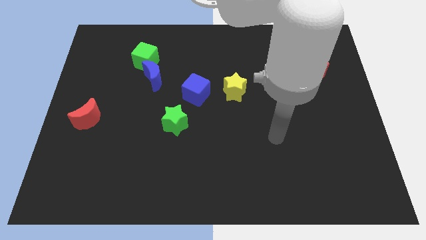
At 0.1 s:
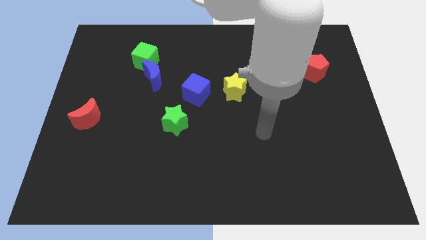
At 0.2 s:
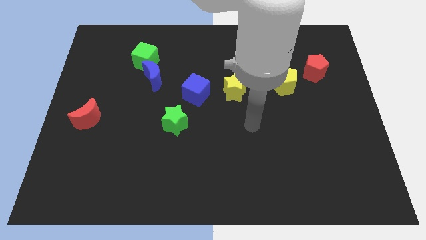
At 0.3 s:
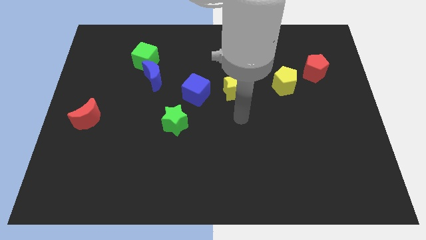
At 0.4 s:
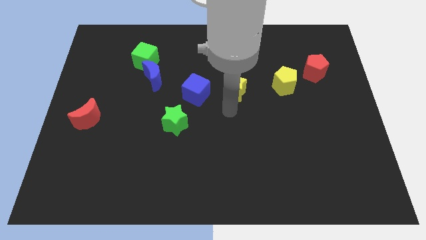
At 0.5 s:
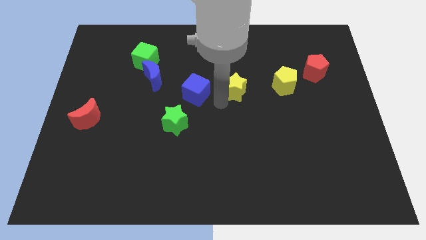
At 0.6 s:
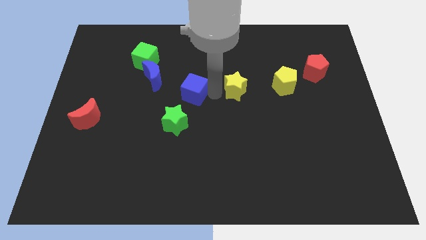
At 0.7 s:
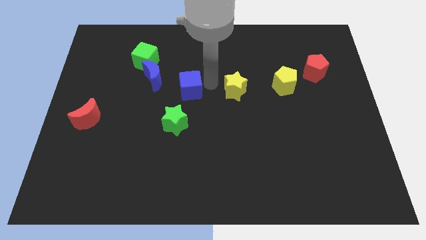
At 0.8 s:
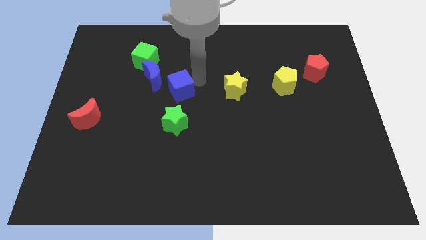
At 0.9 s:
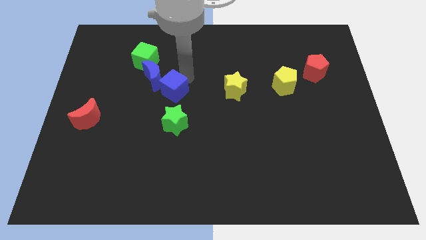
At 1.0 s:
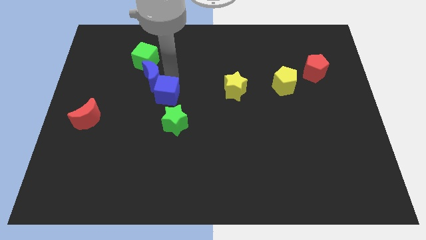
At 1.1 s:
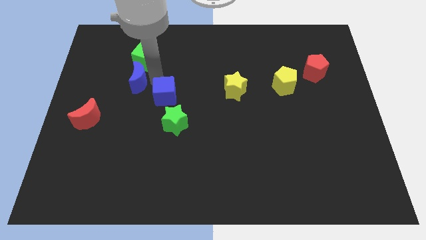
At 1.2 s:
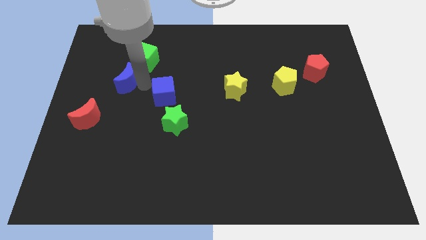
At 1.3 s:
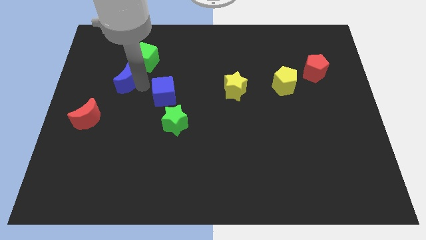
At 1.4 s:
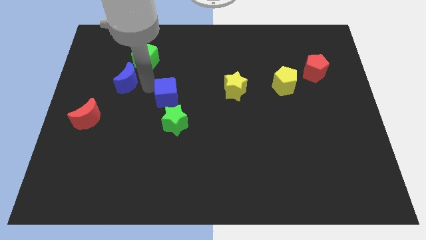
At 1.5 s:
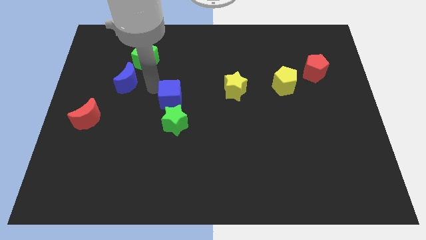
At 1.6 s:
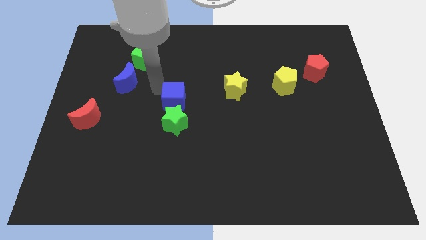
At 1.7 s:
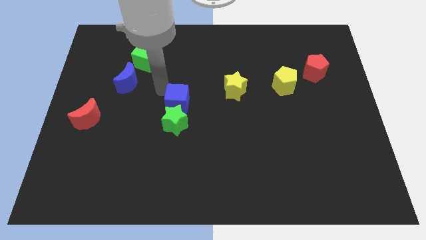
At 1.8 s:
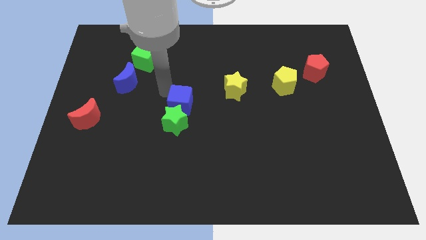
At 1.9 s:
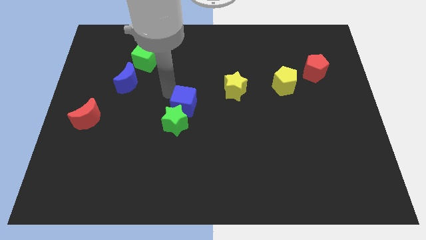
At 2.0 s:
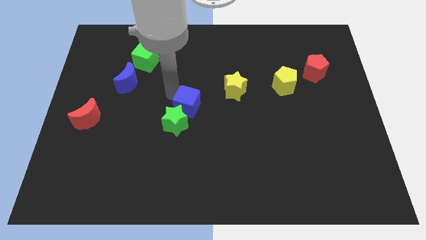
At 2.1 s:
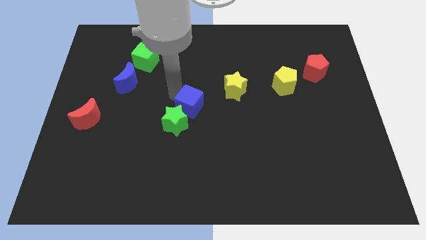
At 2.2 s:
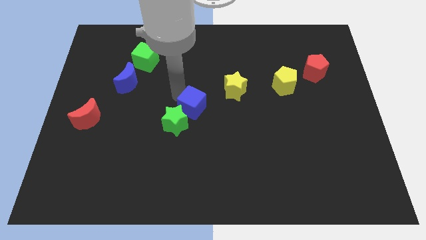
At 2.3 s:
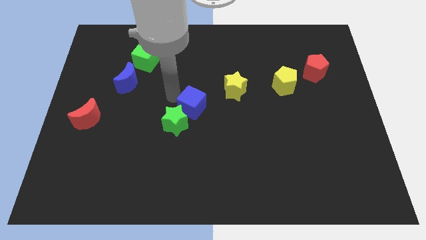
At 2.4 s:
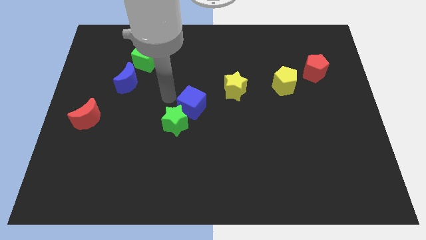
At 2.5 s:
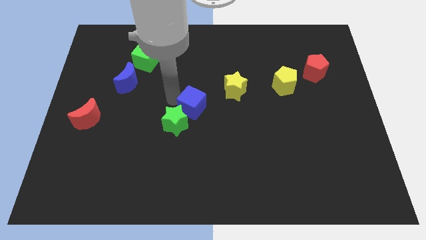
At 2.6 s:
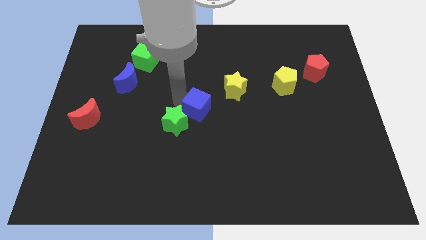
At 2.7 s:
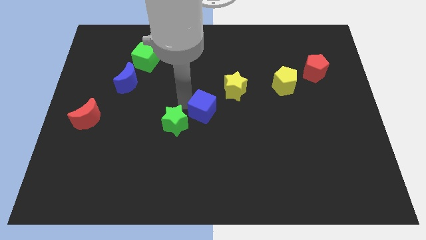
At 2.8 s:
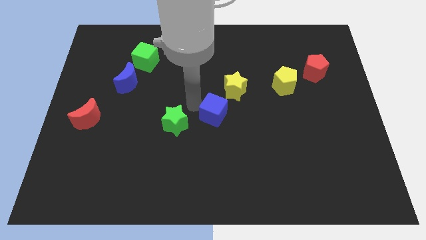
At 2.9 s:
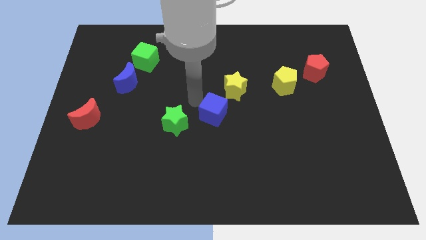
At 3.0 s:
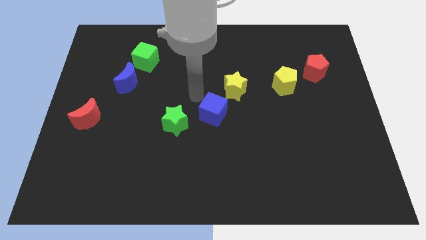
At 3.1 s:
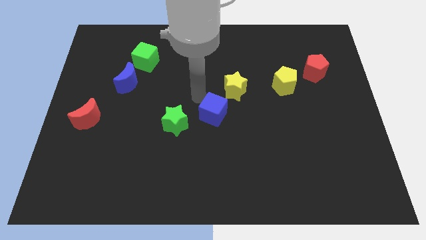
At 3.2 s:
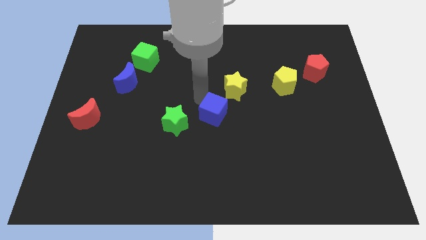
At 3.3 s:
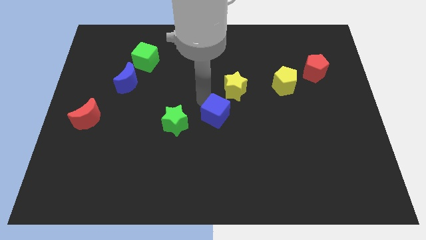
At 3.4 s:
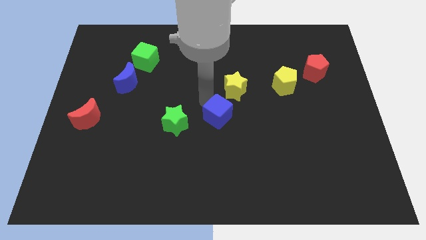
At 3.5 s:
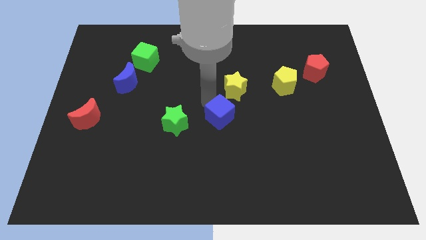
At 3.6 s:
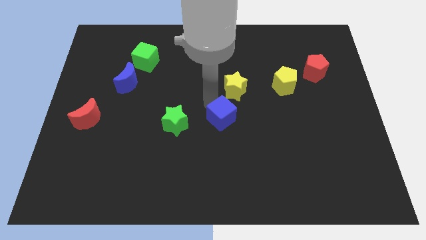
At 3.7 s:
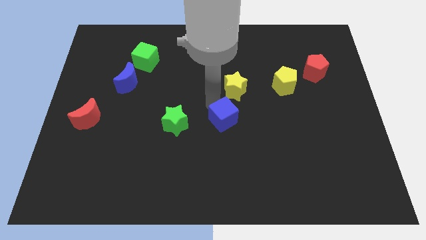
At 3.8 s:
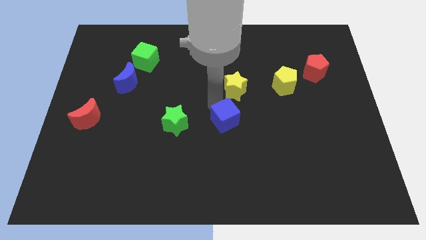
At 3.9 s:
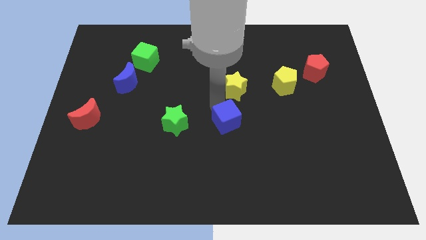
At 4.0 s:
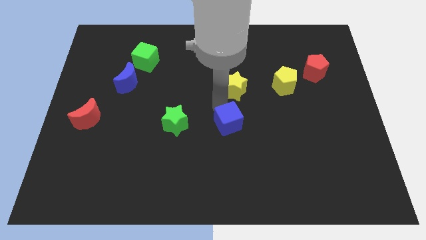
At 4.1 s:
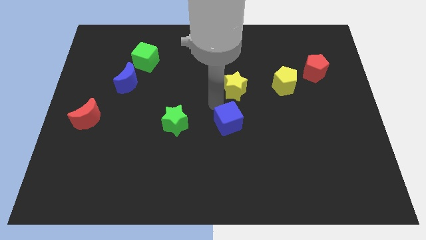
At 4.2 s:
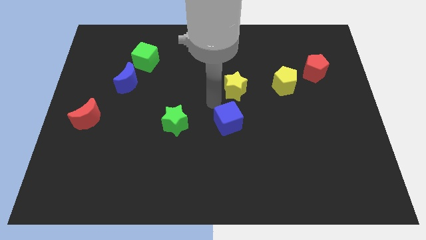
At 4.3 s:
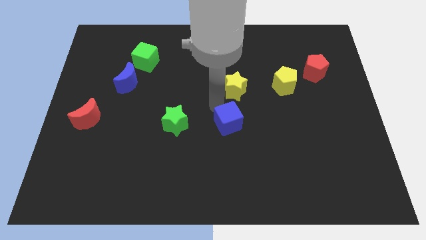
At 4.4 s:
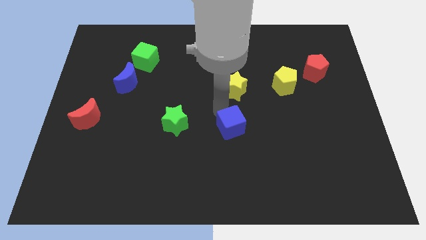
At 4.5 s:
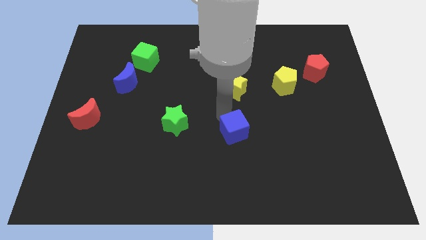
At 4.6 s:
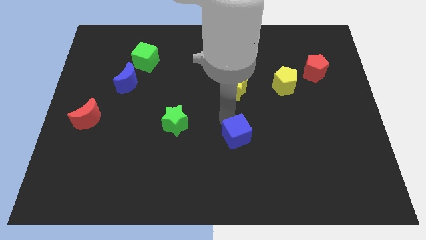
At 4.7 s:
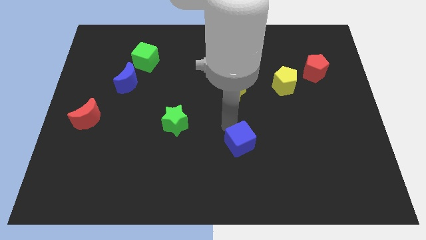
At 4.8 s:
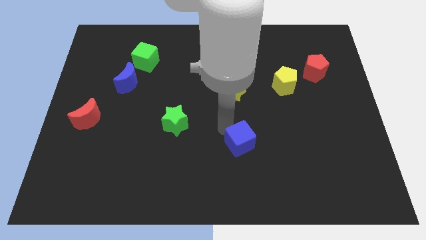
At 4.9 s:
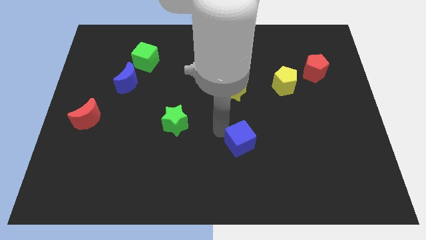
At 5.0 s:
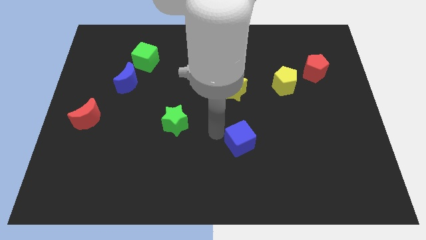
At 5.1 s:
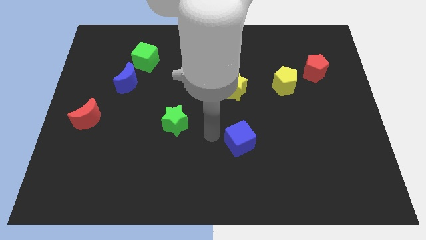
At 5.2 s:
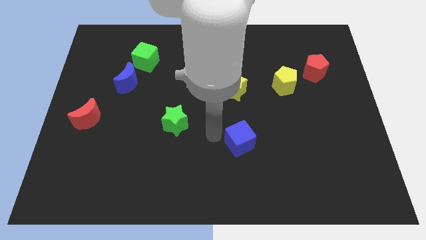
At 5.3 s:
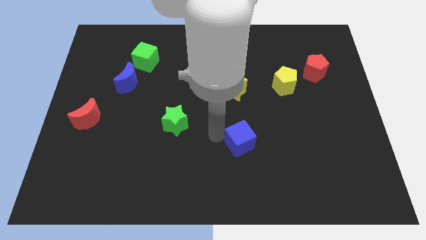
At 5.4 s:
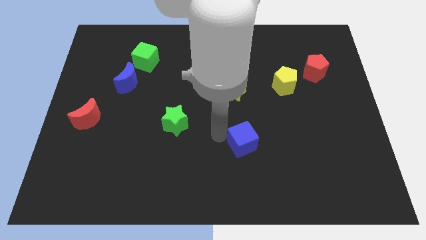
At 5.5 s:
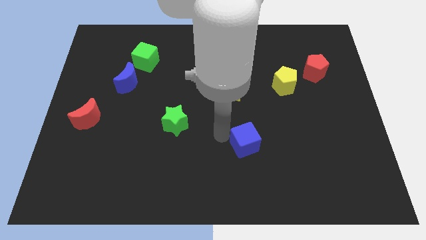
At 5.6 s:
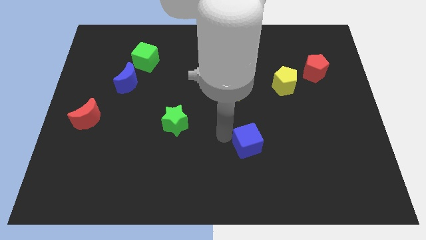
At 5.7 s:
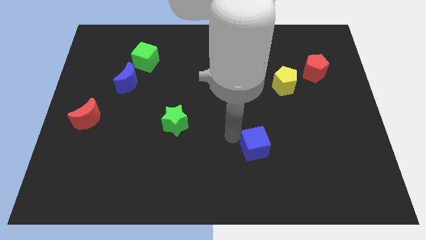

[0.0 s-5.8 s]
push the blue cube diagonally down and right

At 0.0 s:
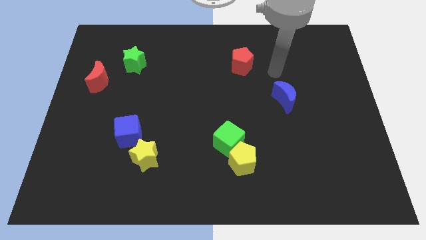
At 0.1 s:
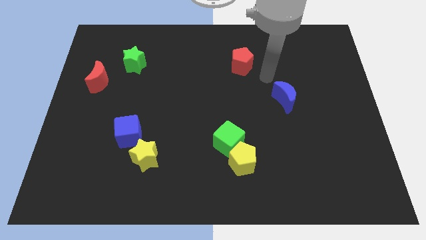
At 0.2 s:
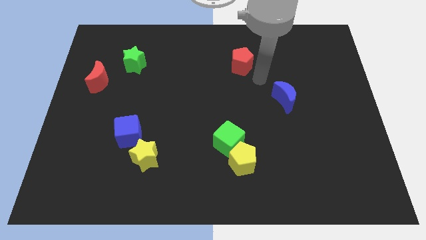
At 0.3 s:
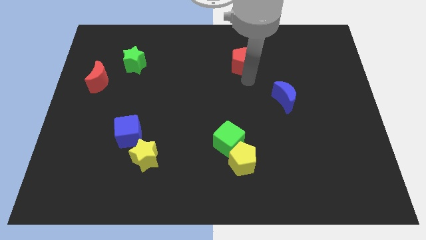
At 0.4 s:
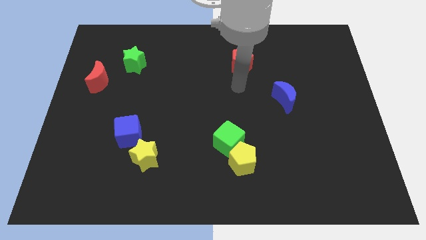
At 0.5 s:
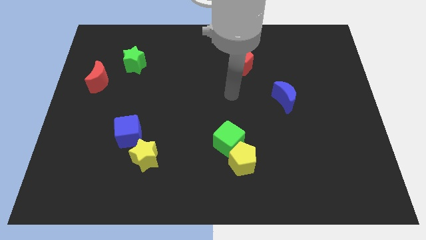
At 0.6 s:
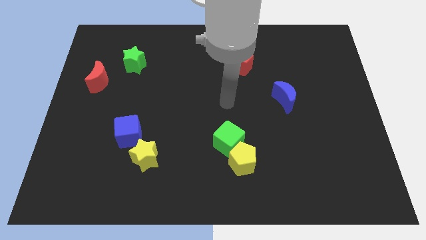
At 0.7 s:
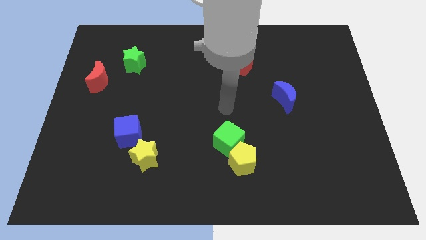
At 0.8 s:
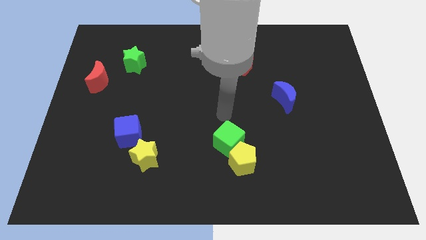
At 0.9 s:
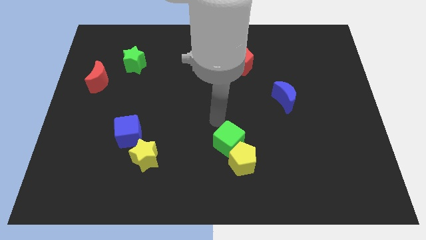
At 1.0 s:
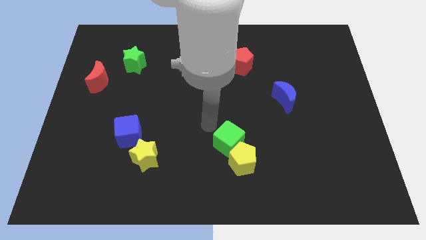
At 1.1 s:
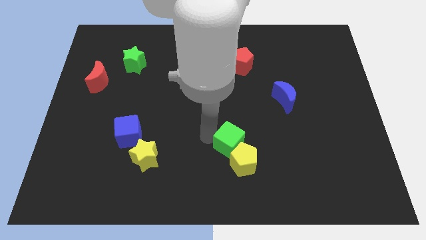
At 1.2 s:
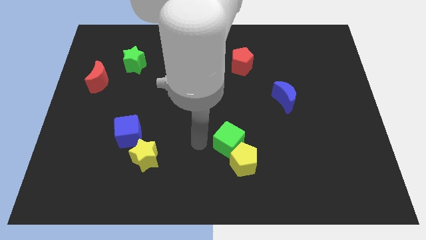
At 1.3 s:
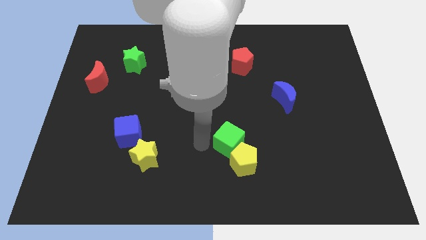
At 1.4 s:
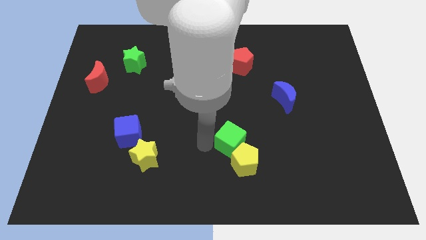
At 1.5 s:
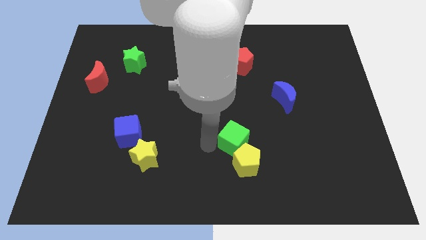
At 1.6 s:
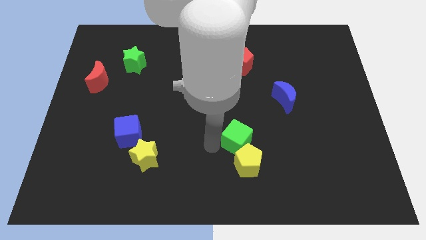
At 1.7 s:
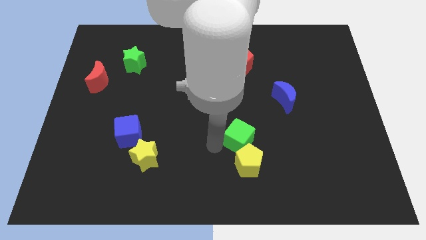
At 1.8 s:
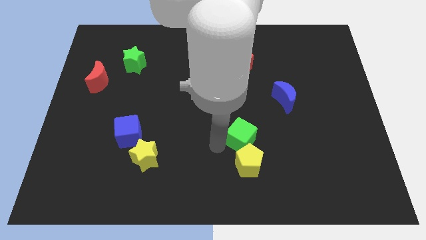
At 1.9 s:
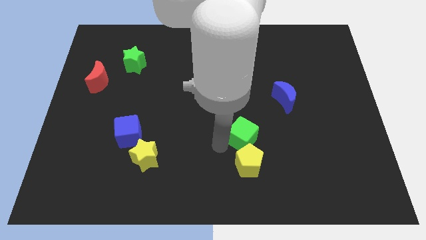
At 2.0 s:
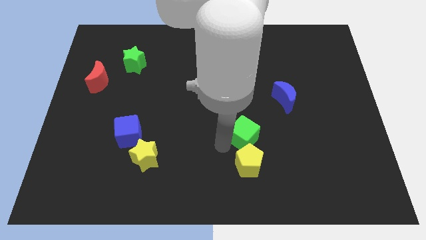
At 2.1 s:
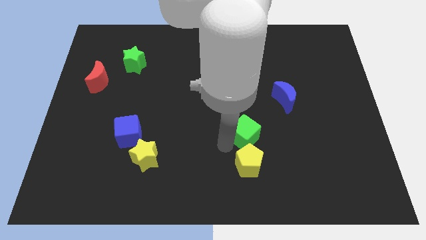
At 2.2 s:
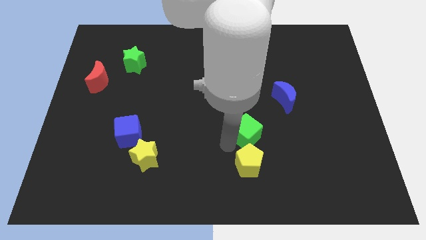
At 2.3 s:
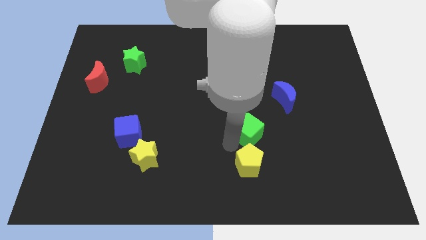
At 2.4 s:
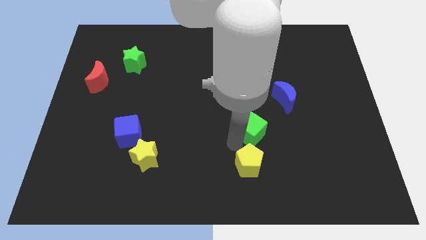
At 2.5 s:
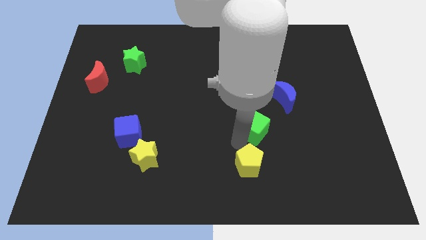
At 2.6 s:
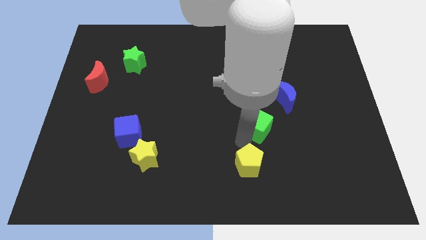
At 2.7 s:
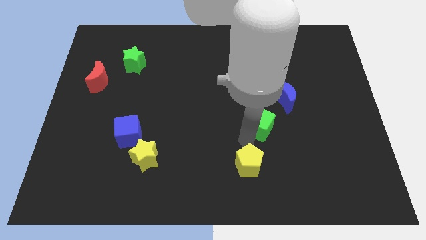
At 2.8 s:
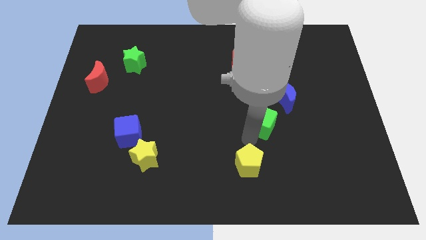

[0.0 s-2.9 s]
slide the green cube to the right a little bit
